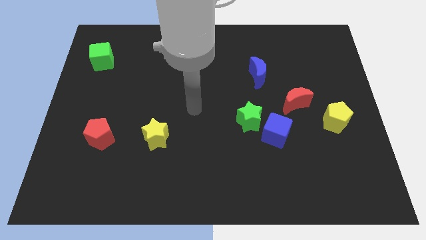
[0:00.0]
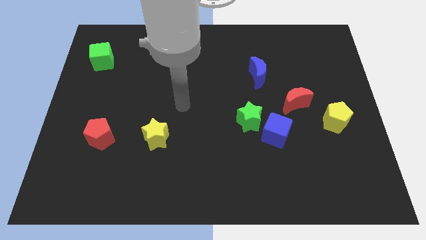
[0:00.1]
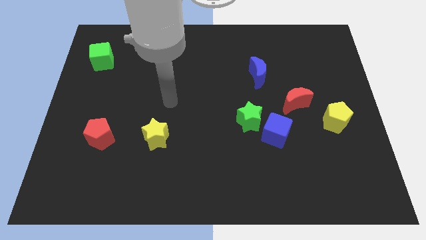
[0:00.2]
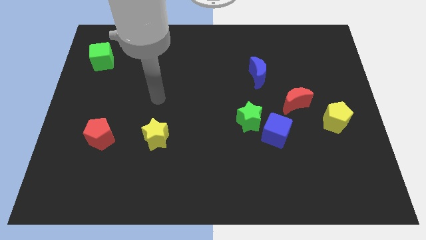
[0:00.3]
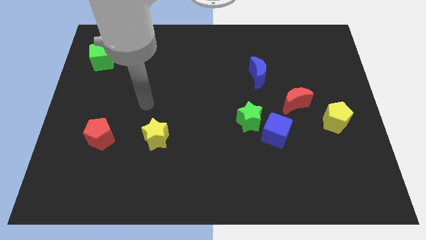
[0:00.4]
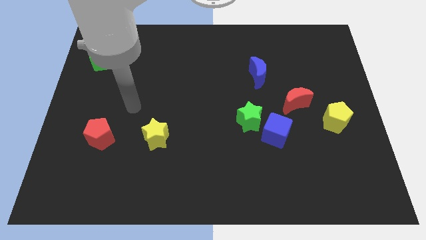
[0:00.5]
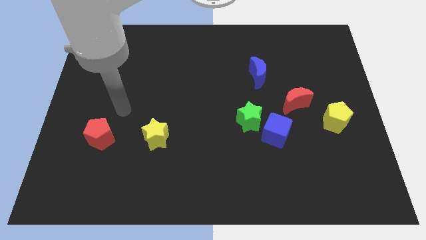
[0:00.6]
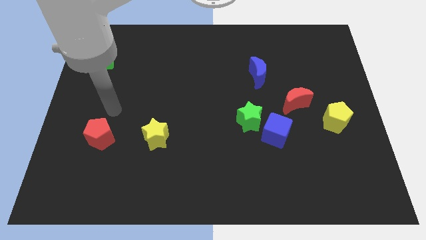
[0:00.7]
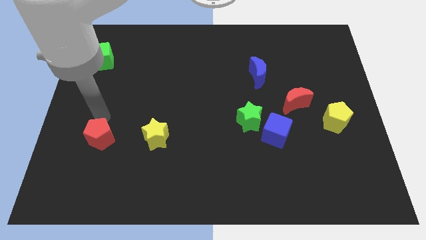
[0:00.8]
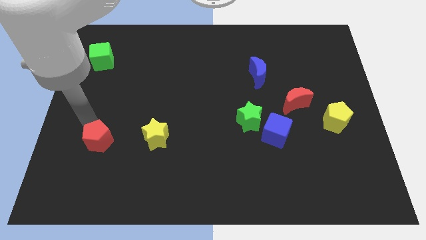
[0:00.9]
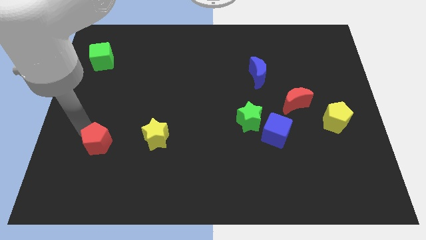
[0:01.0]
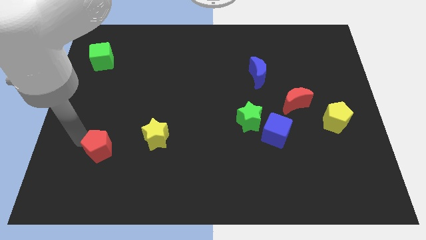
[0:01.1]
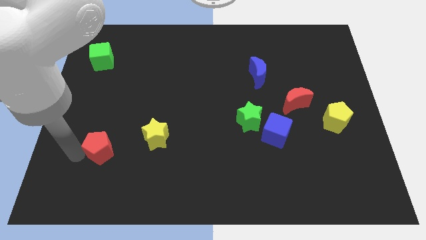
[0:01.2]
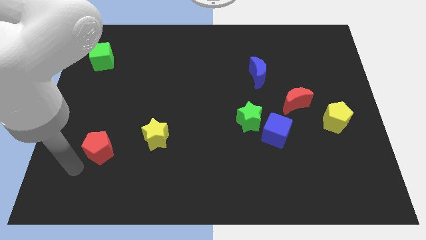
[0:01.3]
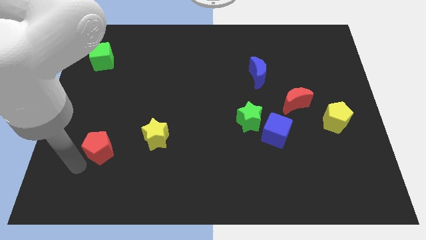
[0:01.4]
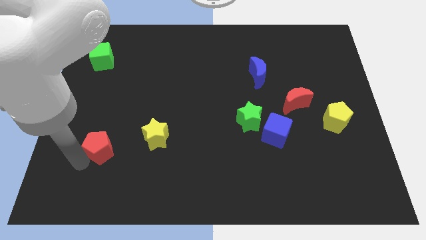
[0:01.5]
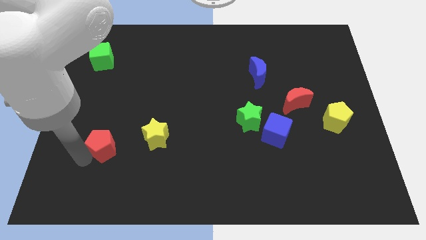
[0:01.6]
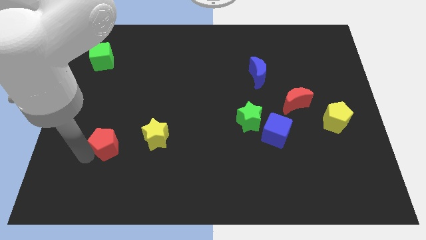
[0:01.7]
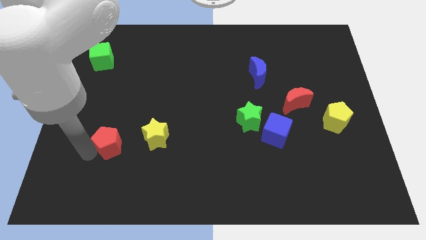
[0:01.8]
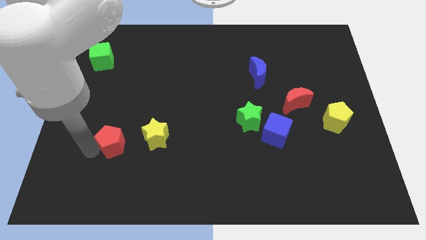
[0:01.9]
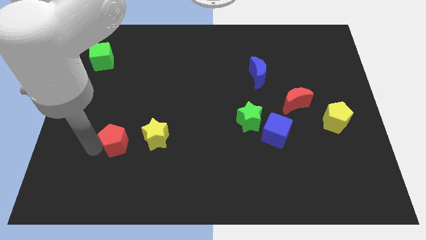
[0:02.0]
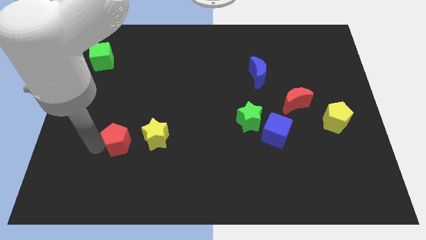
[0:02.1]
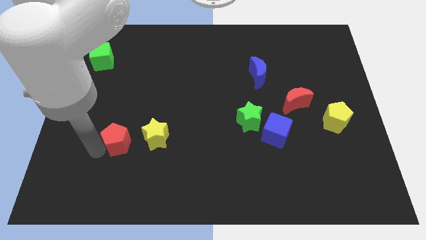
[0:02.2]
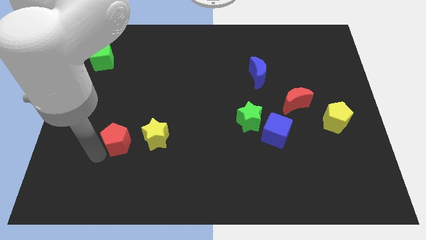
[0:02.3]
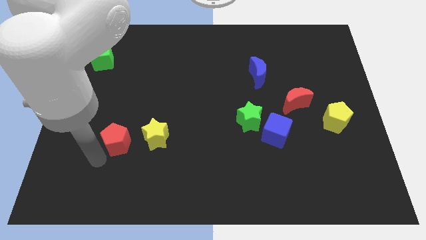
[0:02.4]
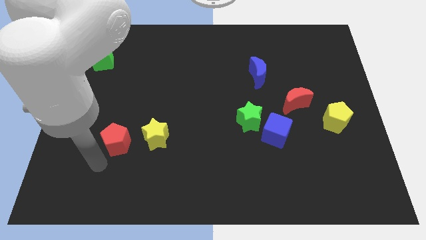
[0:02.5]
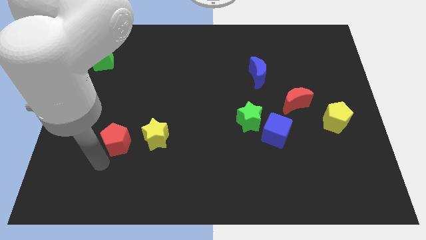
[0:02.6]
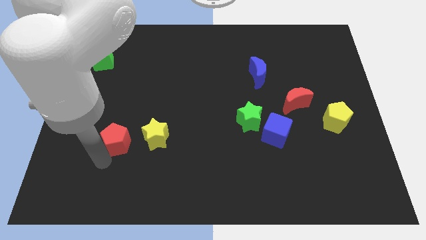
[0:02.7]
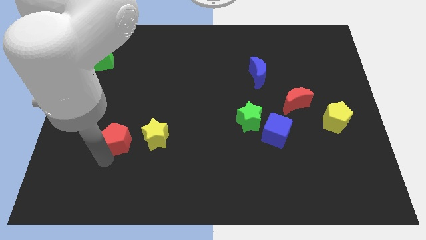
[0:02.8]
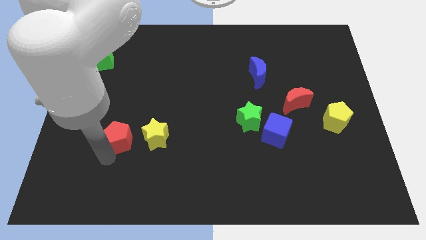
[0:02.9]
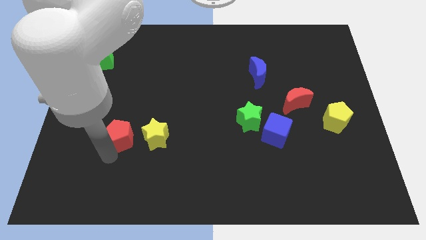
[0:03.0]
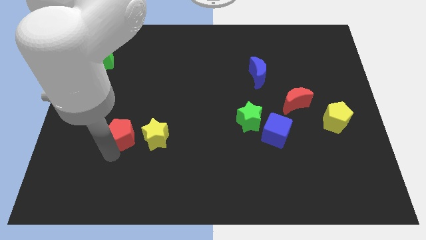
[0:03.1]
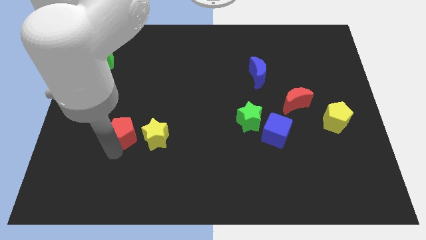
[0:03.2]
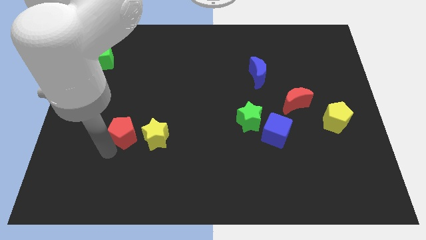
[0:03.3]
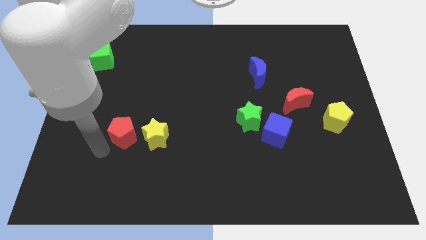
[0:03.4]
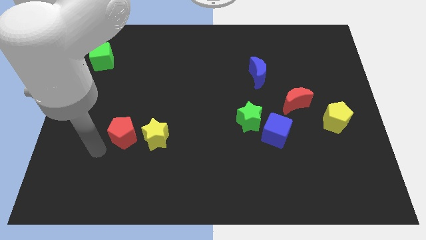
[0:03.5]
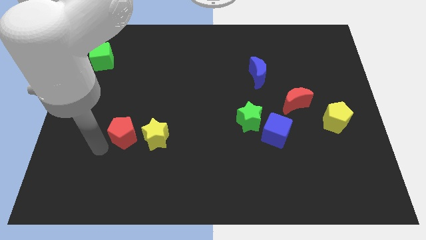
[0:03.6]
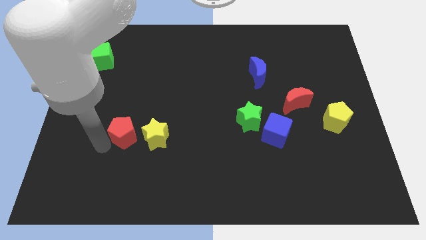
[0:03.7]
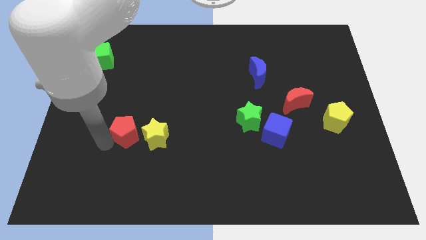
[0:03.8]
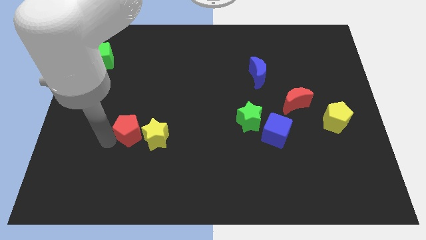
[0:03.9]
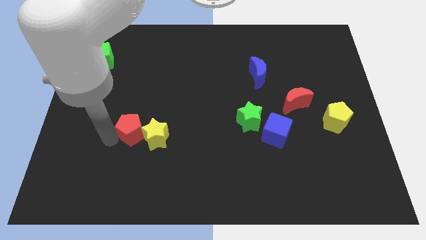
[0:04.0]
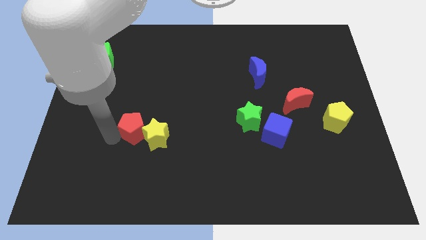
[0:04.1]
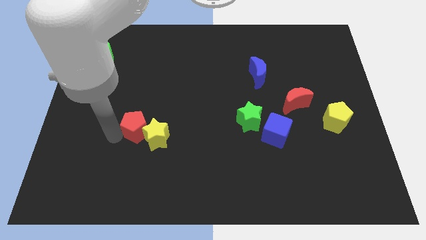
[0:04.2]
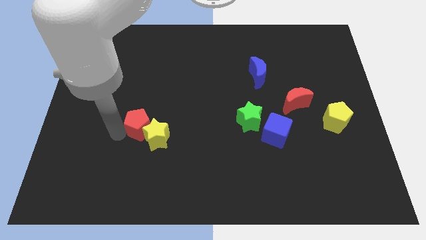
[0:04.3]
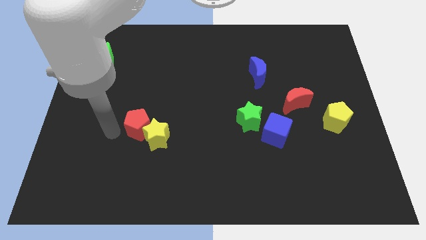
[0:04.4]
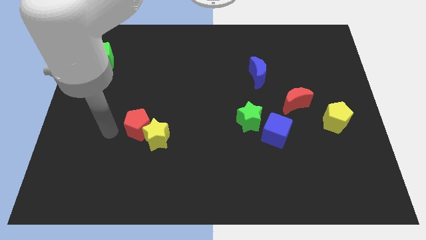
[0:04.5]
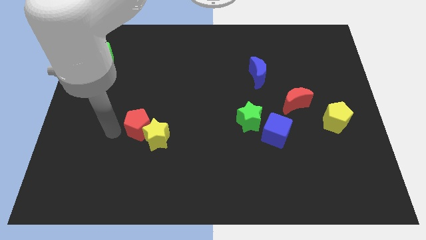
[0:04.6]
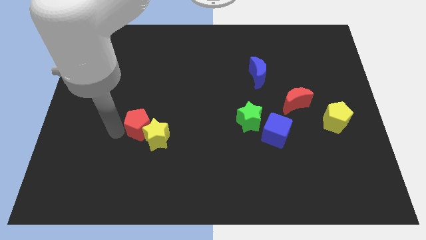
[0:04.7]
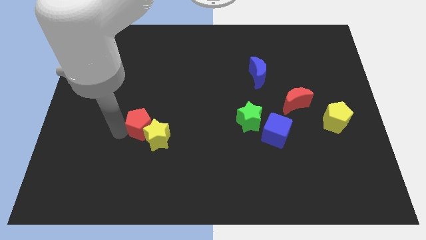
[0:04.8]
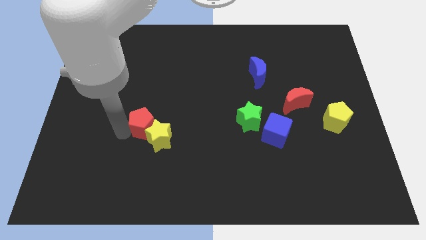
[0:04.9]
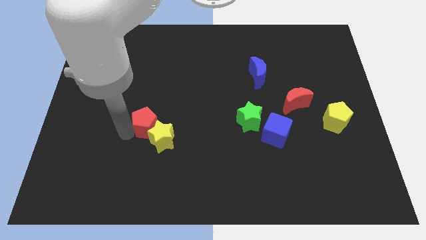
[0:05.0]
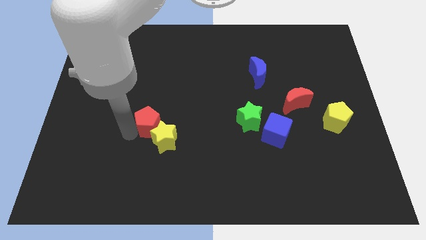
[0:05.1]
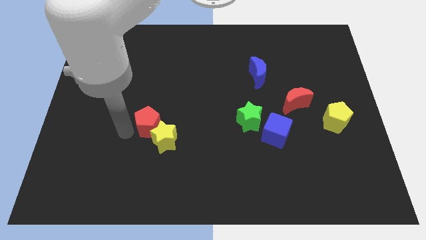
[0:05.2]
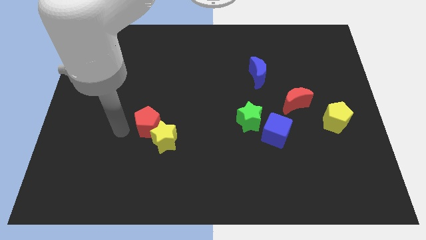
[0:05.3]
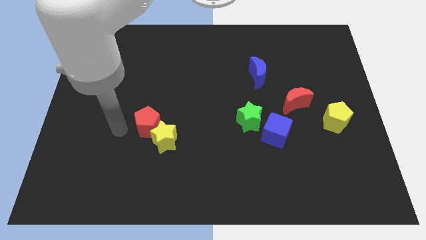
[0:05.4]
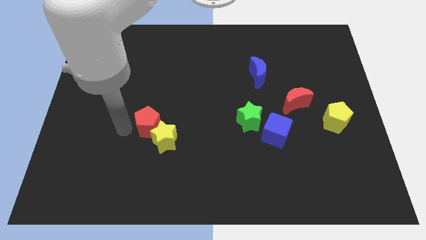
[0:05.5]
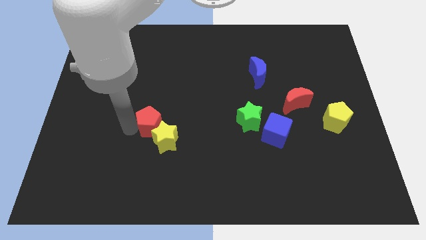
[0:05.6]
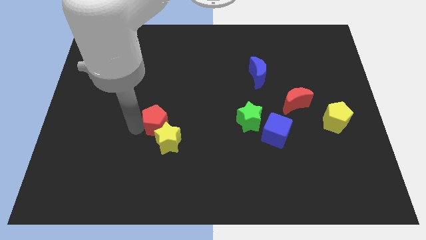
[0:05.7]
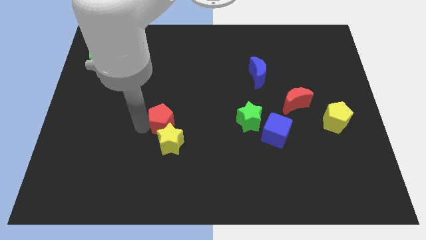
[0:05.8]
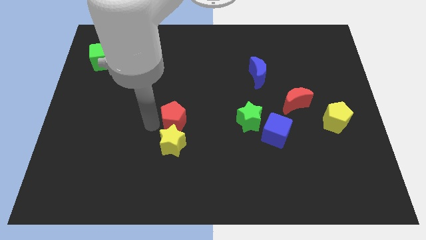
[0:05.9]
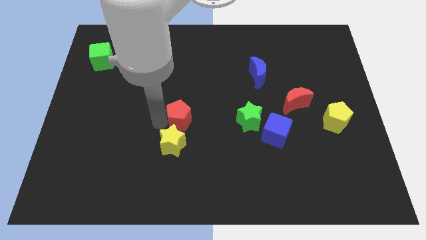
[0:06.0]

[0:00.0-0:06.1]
push the red pentagon just left of the green star

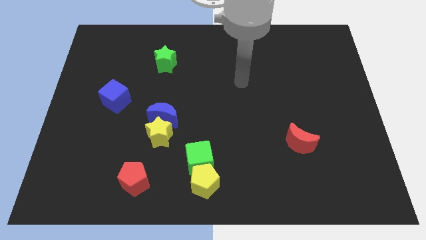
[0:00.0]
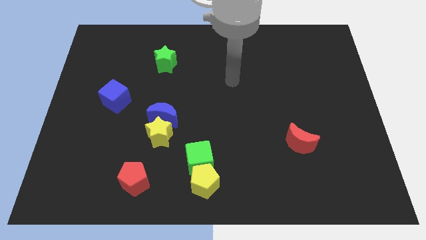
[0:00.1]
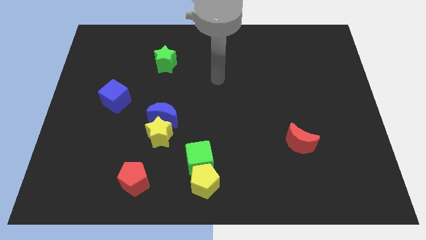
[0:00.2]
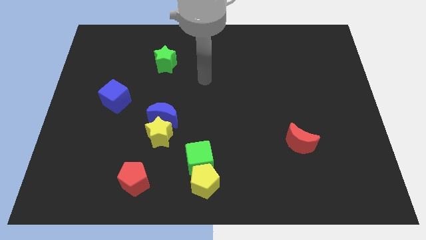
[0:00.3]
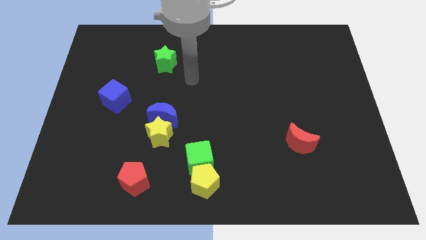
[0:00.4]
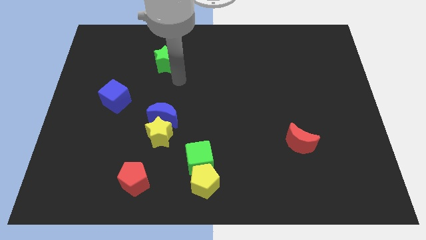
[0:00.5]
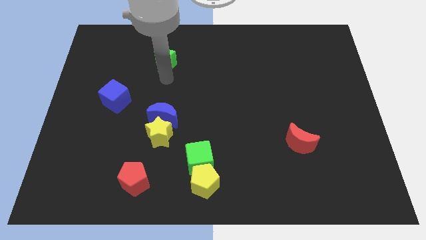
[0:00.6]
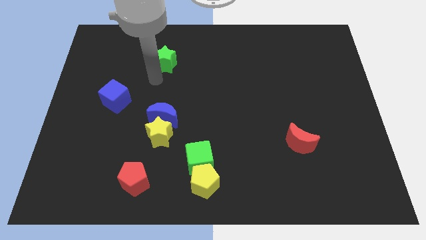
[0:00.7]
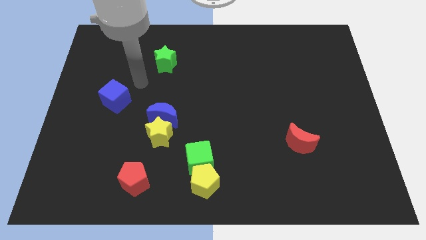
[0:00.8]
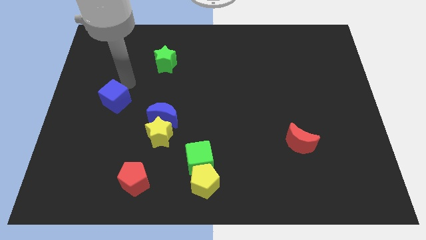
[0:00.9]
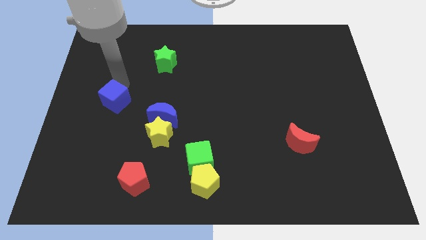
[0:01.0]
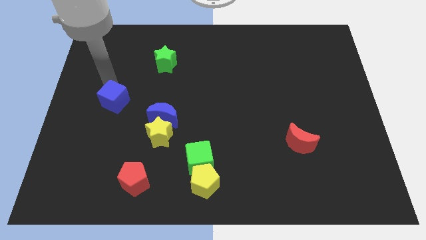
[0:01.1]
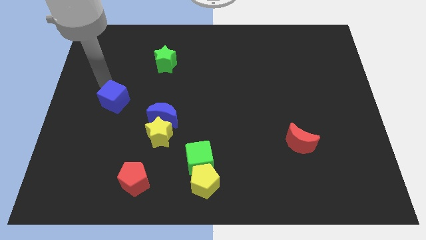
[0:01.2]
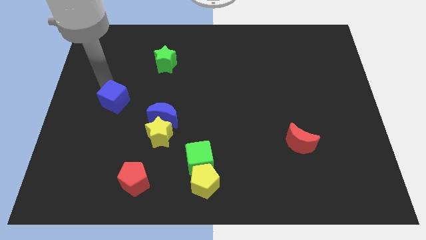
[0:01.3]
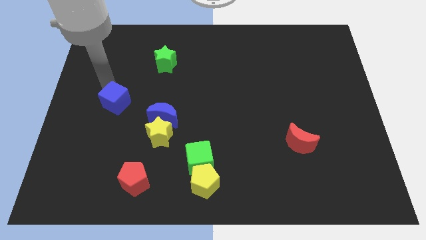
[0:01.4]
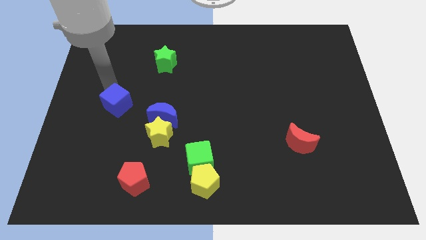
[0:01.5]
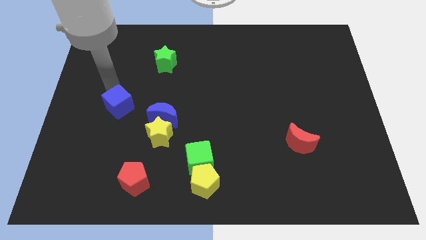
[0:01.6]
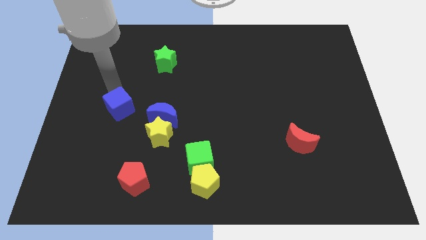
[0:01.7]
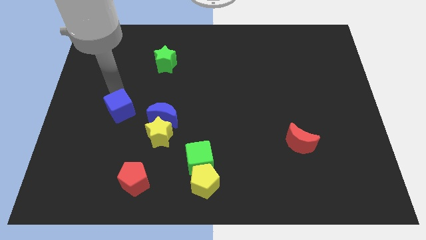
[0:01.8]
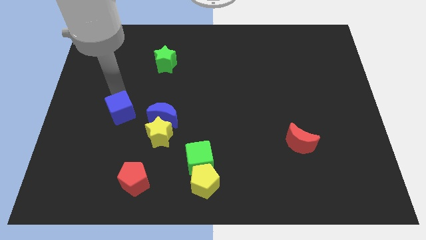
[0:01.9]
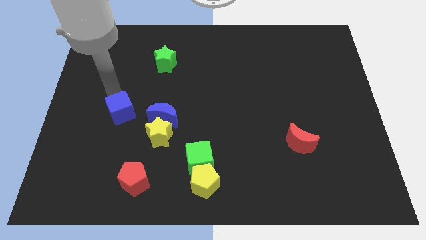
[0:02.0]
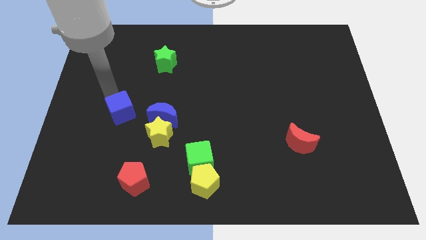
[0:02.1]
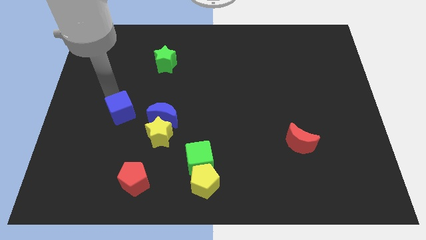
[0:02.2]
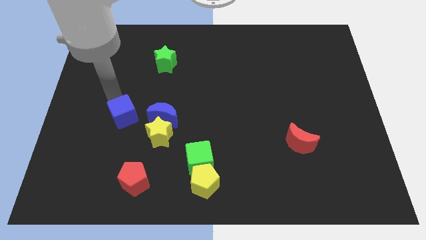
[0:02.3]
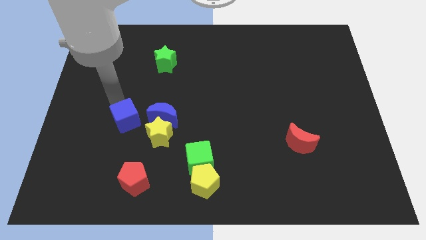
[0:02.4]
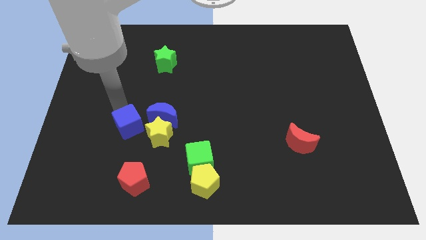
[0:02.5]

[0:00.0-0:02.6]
move the blue cube to the top side of the red pentagon
